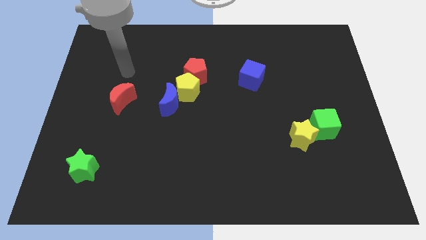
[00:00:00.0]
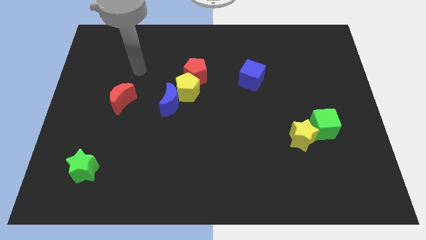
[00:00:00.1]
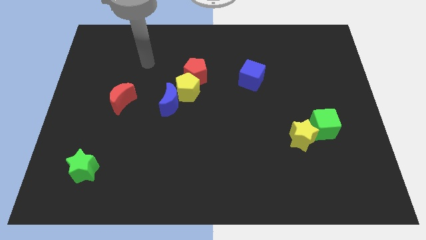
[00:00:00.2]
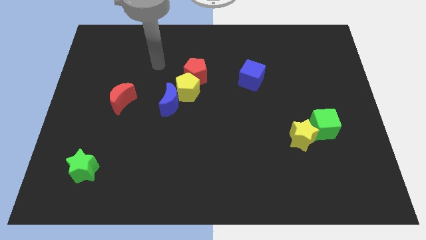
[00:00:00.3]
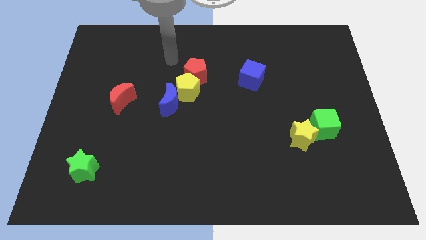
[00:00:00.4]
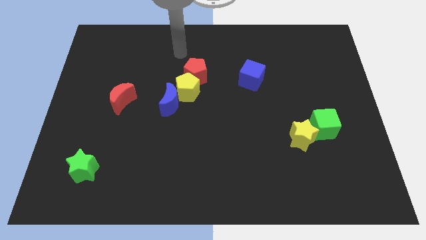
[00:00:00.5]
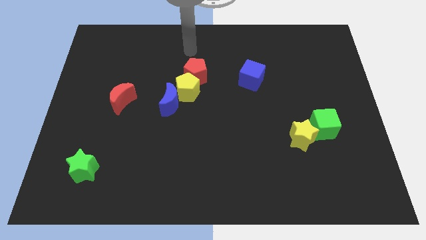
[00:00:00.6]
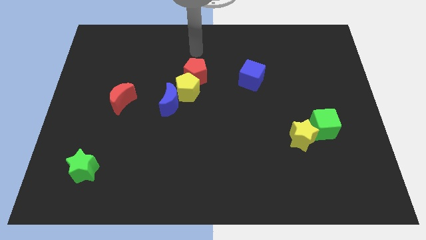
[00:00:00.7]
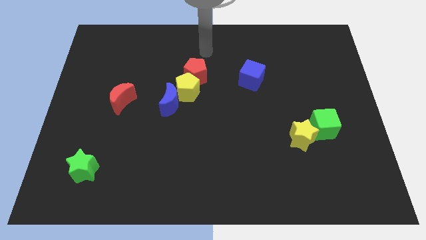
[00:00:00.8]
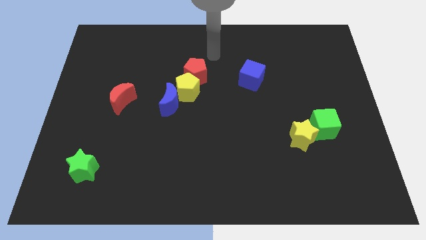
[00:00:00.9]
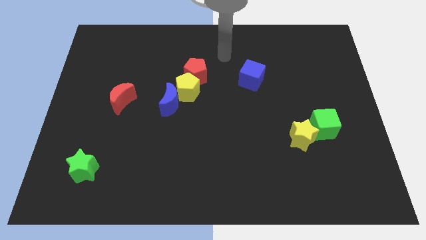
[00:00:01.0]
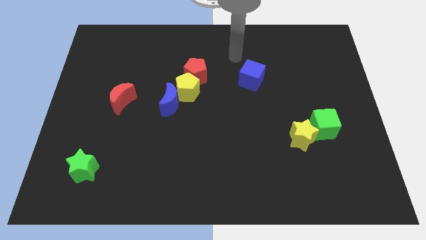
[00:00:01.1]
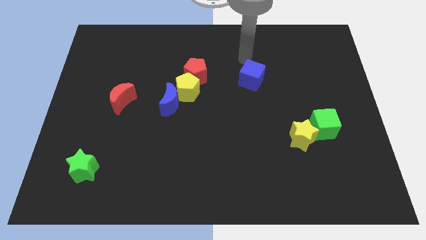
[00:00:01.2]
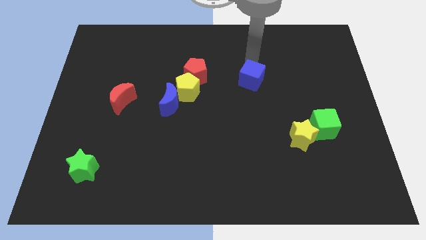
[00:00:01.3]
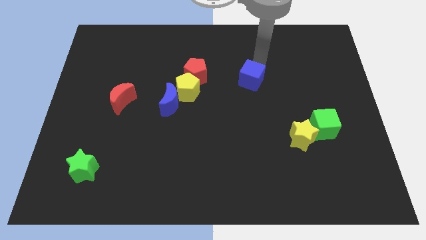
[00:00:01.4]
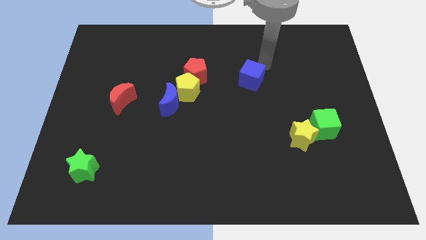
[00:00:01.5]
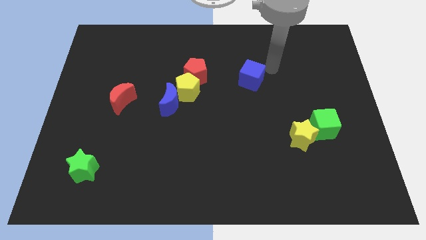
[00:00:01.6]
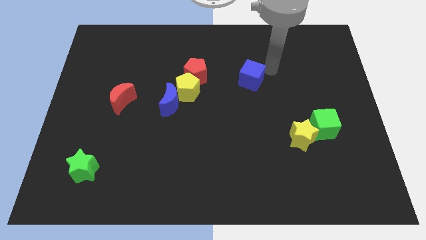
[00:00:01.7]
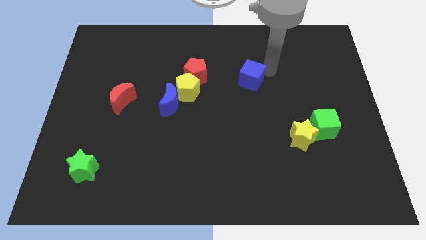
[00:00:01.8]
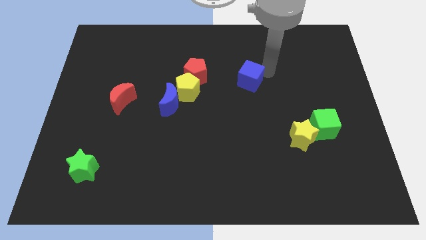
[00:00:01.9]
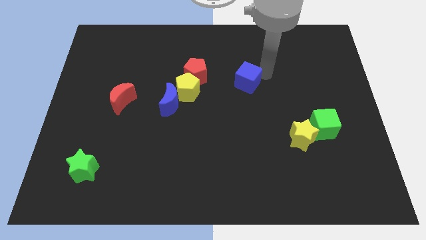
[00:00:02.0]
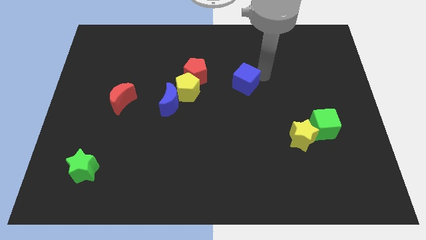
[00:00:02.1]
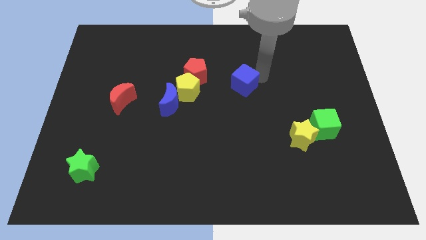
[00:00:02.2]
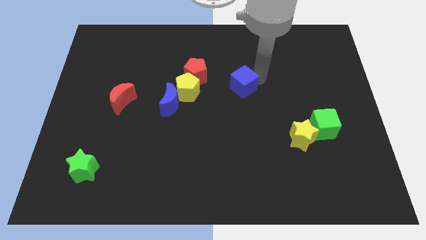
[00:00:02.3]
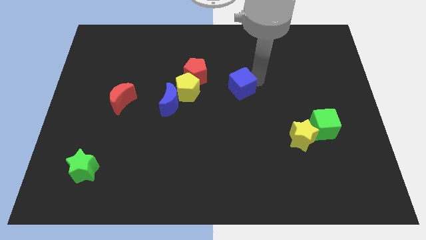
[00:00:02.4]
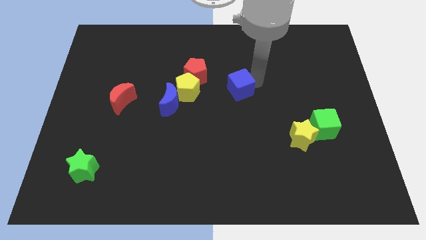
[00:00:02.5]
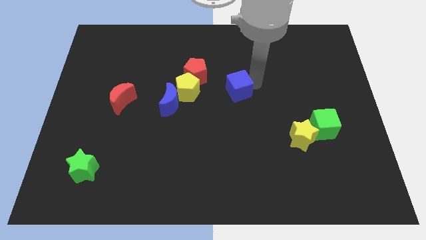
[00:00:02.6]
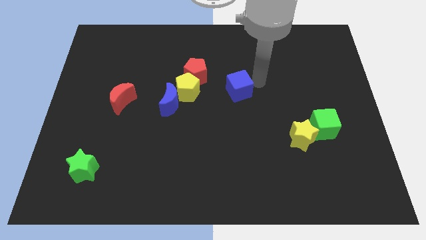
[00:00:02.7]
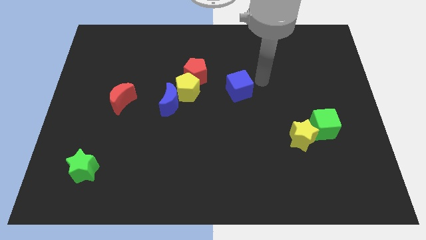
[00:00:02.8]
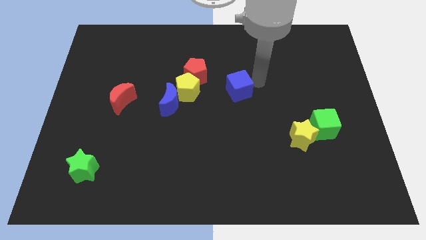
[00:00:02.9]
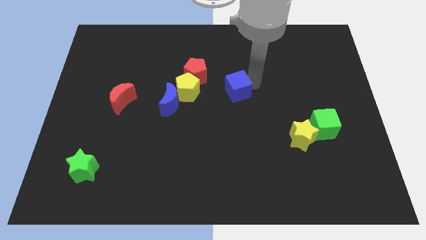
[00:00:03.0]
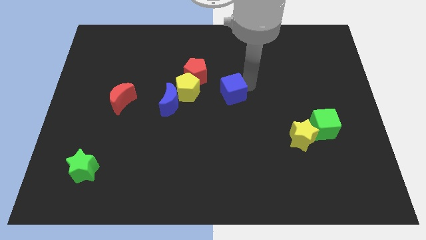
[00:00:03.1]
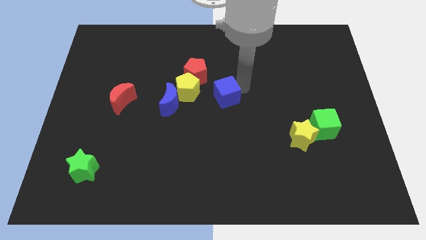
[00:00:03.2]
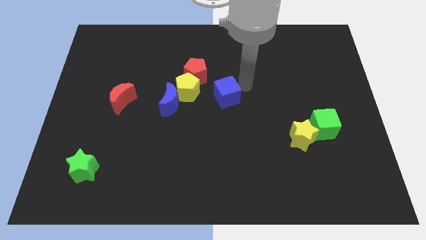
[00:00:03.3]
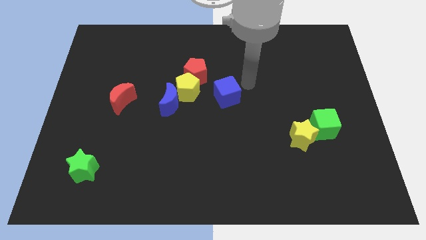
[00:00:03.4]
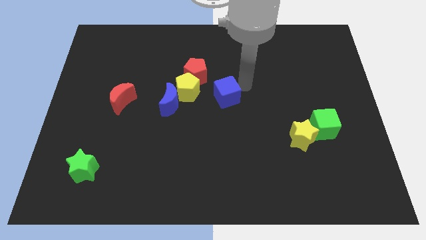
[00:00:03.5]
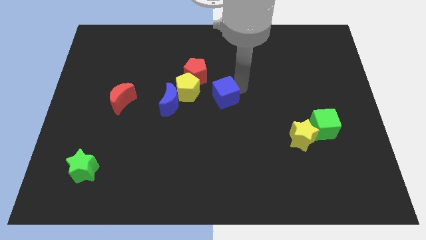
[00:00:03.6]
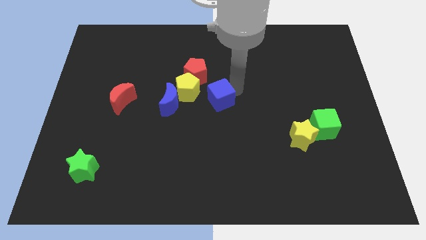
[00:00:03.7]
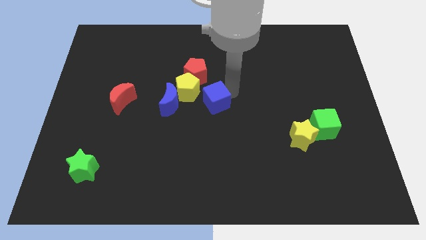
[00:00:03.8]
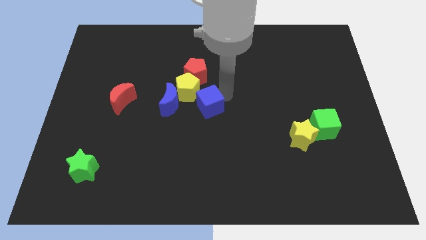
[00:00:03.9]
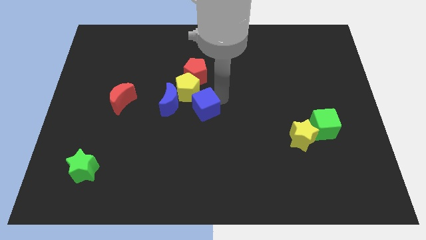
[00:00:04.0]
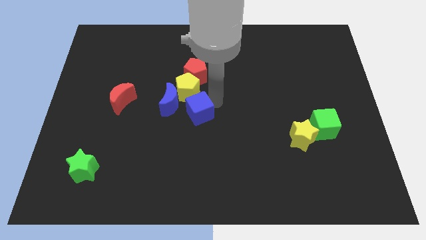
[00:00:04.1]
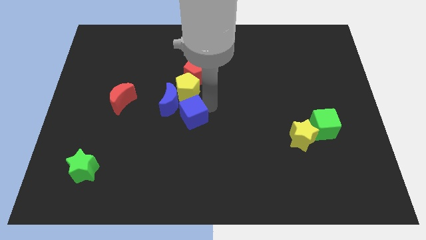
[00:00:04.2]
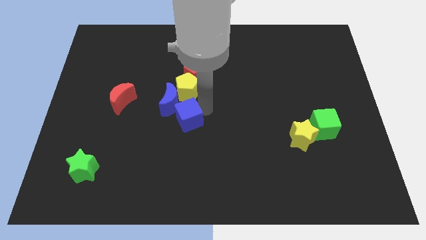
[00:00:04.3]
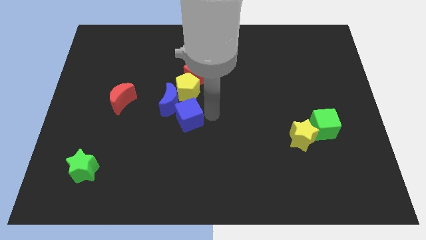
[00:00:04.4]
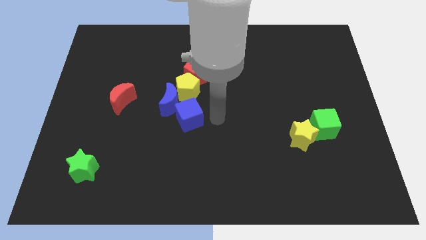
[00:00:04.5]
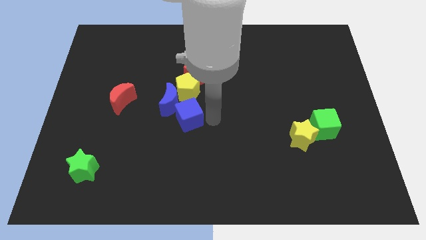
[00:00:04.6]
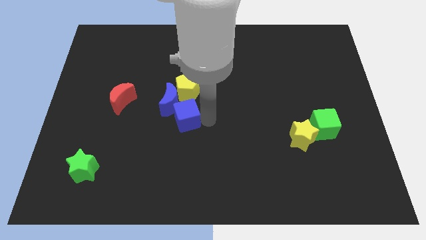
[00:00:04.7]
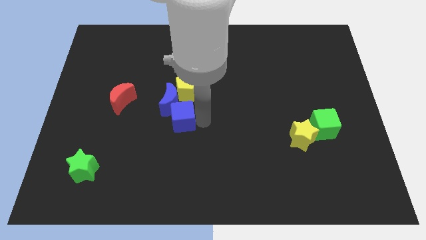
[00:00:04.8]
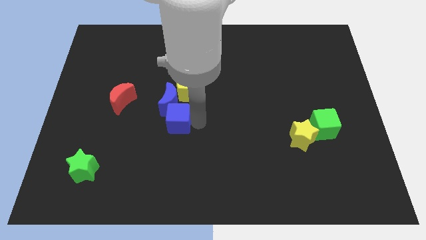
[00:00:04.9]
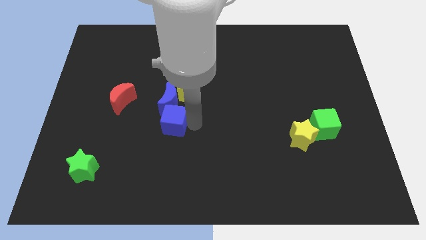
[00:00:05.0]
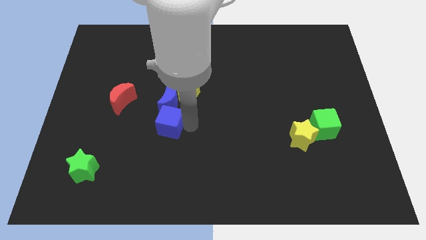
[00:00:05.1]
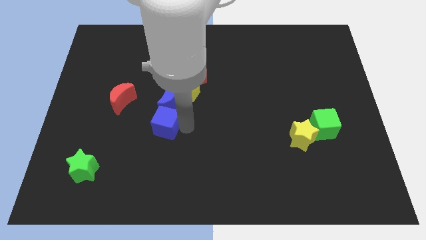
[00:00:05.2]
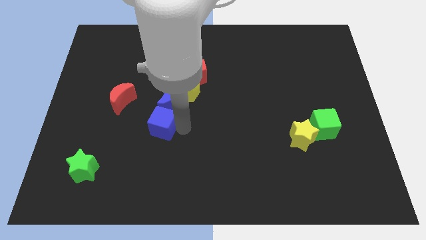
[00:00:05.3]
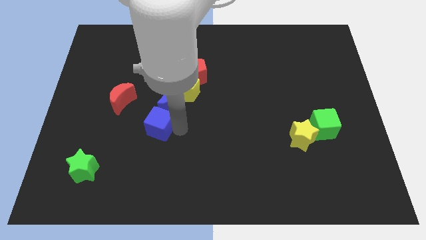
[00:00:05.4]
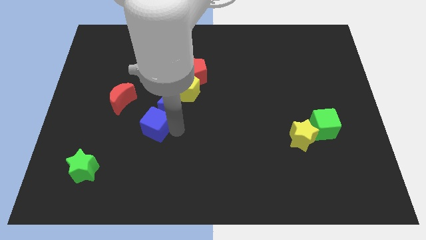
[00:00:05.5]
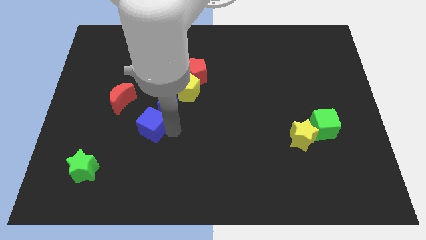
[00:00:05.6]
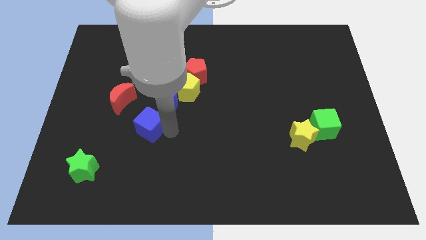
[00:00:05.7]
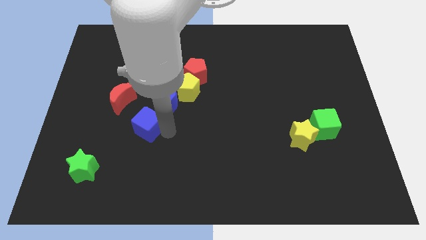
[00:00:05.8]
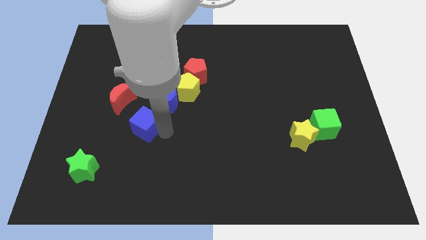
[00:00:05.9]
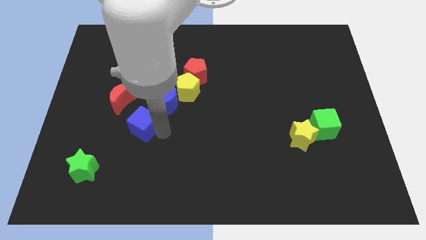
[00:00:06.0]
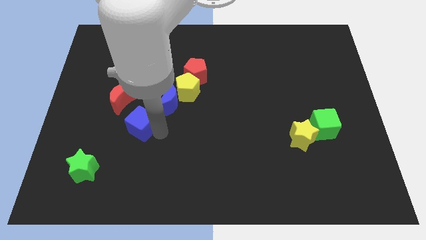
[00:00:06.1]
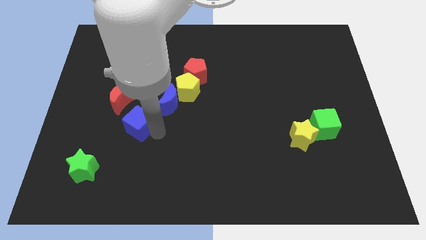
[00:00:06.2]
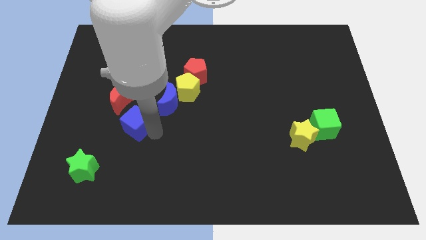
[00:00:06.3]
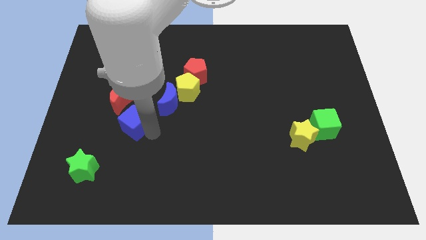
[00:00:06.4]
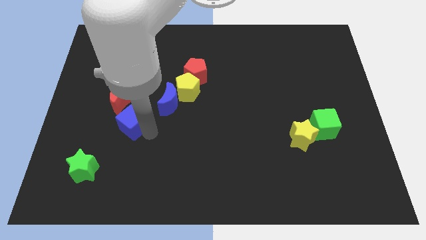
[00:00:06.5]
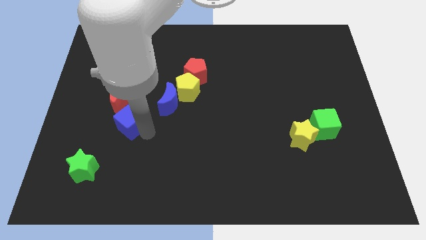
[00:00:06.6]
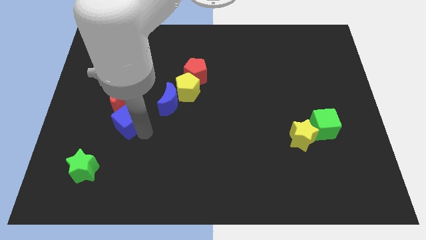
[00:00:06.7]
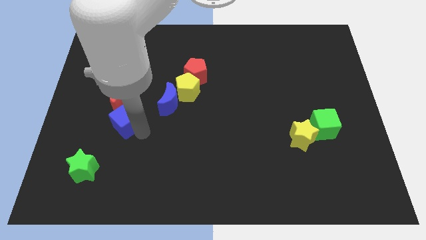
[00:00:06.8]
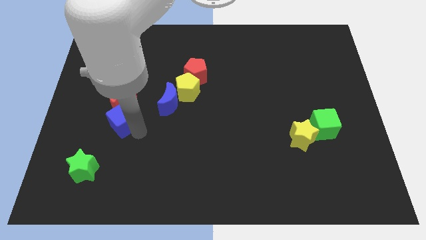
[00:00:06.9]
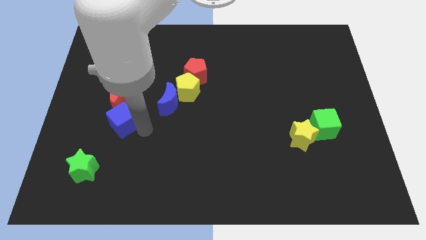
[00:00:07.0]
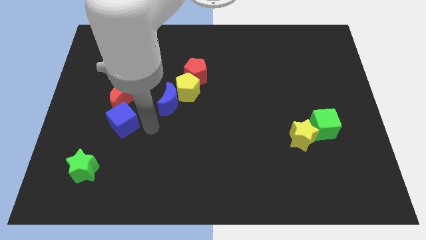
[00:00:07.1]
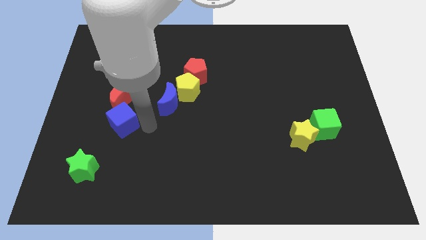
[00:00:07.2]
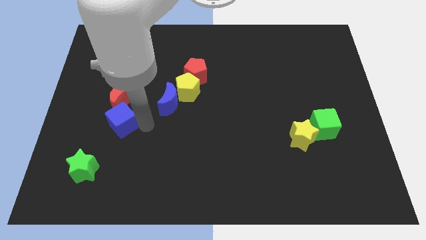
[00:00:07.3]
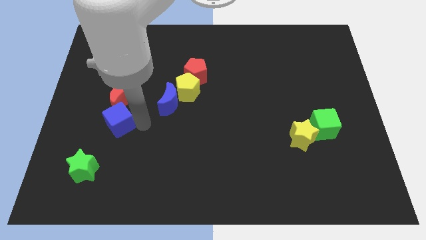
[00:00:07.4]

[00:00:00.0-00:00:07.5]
push the blue cube to the bottom left of the red moon
